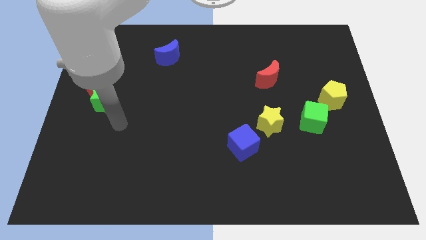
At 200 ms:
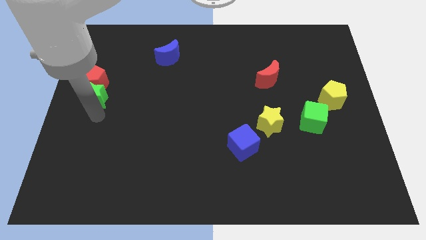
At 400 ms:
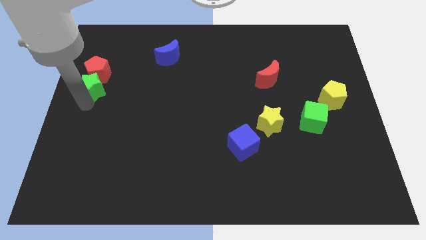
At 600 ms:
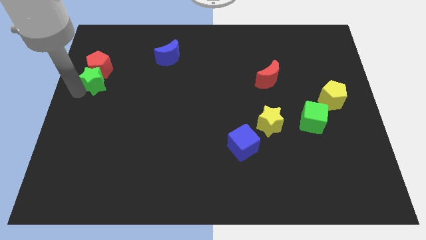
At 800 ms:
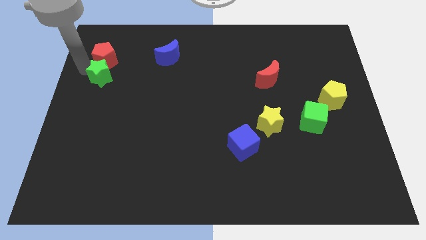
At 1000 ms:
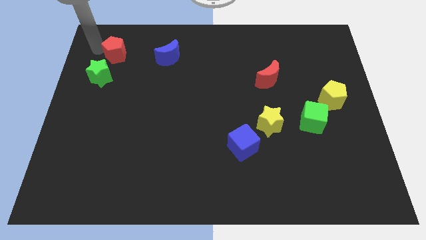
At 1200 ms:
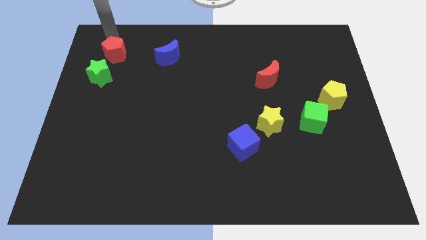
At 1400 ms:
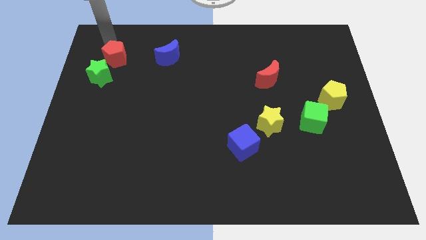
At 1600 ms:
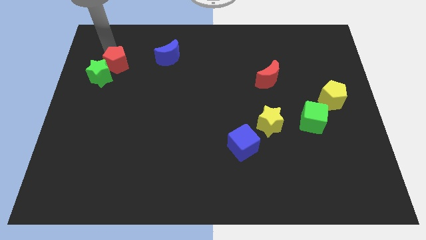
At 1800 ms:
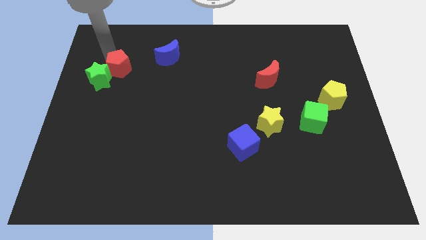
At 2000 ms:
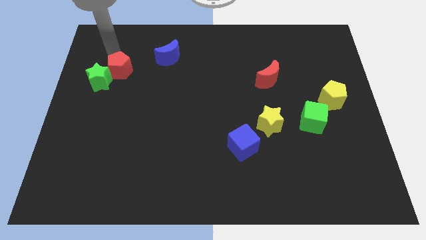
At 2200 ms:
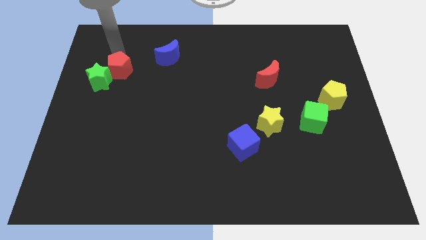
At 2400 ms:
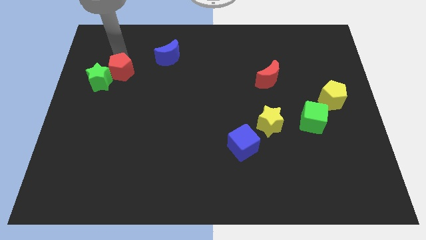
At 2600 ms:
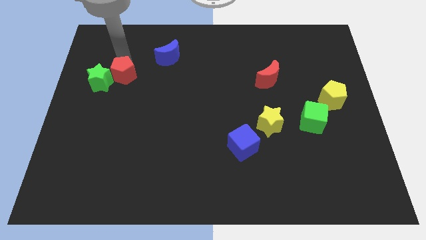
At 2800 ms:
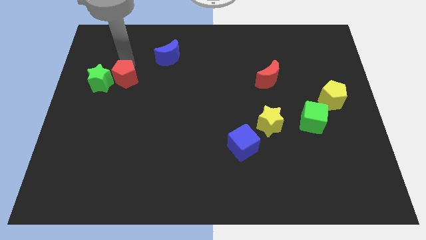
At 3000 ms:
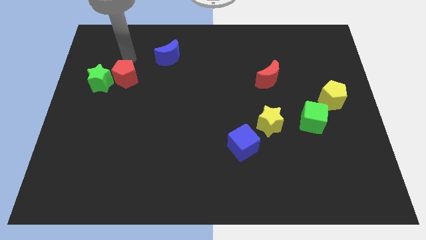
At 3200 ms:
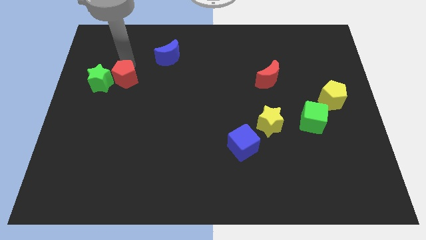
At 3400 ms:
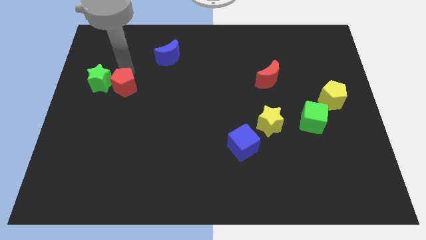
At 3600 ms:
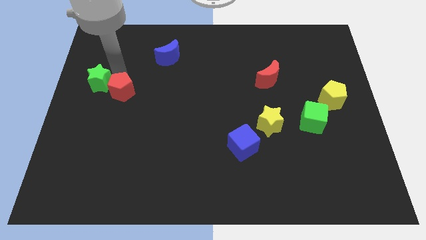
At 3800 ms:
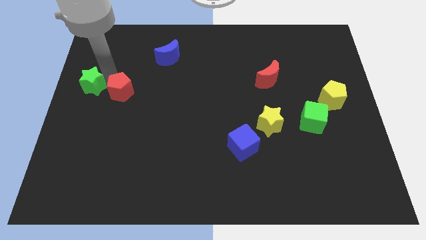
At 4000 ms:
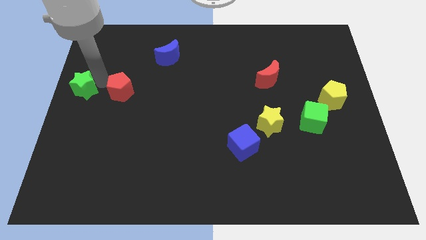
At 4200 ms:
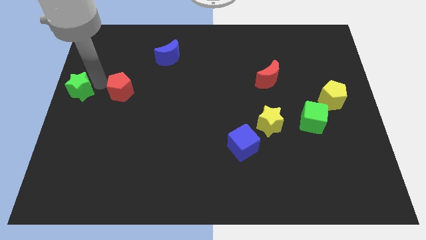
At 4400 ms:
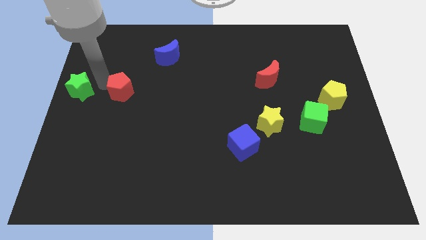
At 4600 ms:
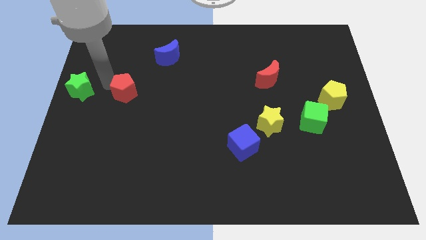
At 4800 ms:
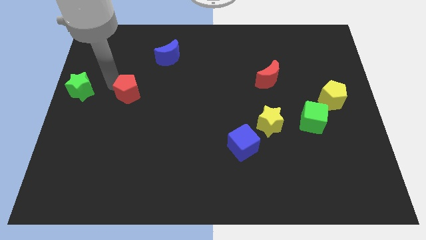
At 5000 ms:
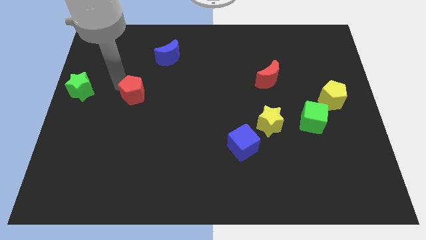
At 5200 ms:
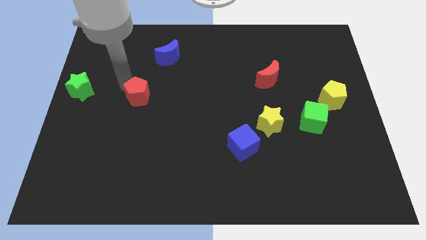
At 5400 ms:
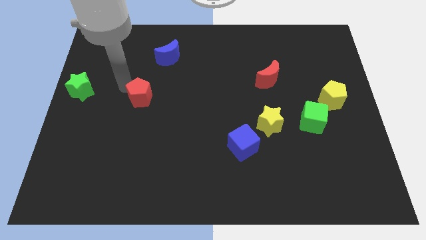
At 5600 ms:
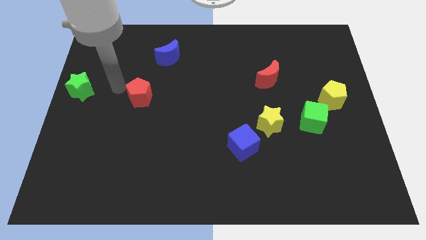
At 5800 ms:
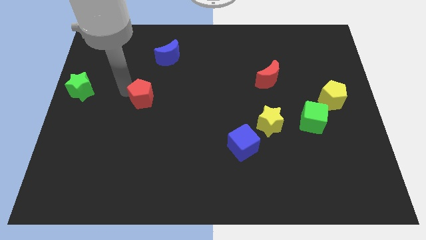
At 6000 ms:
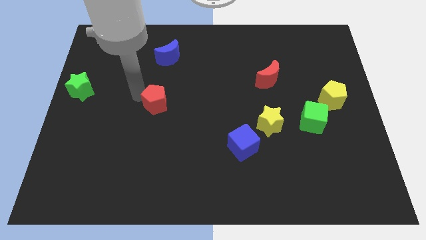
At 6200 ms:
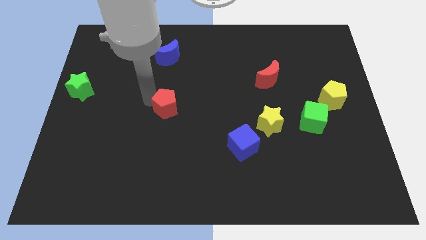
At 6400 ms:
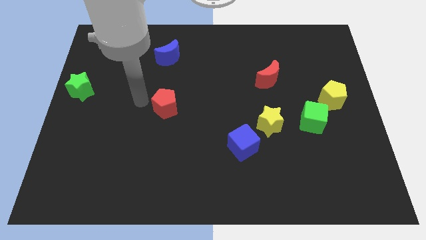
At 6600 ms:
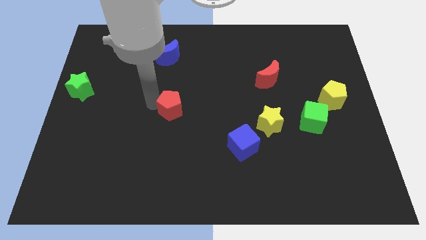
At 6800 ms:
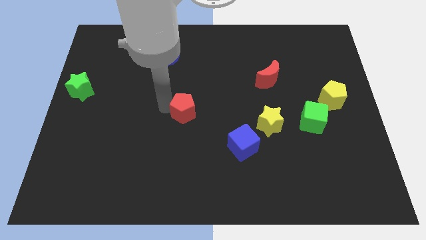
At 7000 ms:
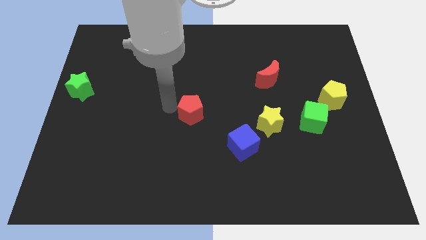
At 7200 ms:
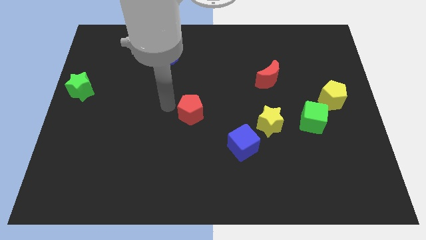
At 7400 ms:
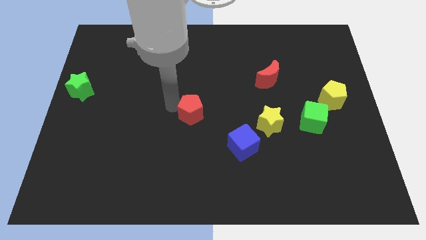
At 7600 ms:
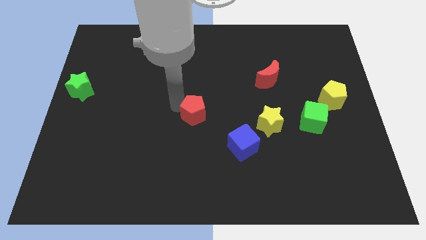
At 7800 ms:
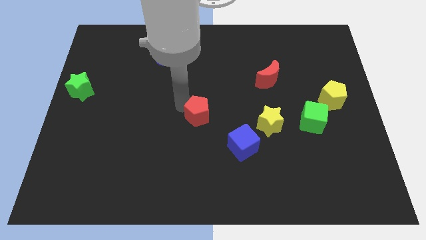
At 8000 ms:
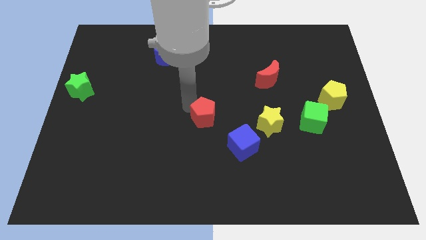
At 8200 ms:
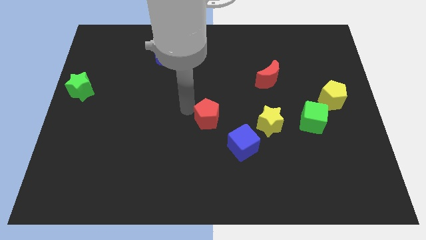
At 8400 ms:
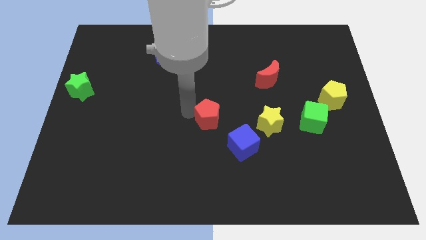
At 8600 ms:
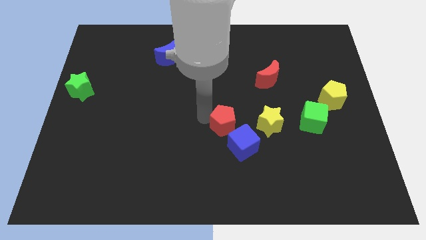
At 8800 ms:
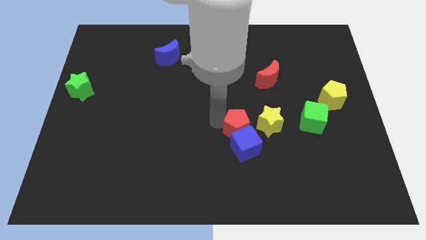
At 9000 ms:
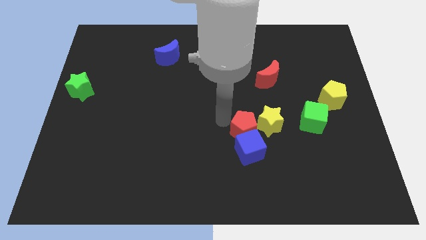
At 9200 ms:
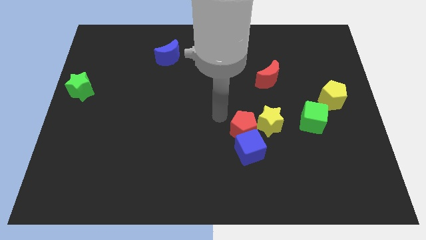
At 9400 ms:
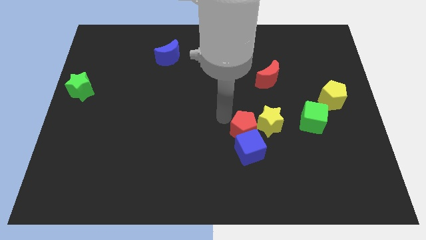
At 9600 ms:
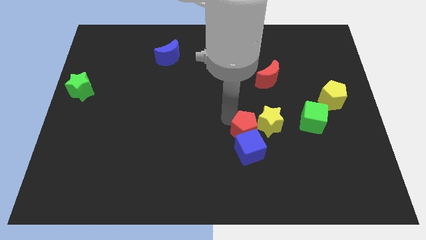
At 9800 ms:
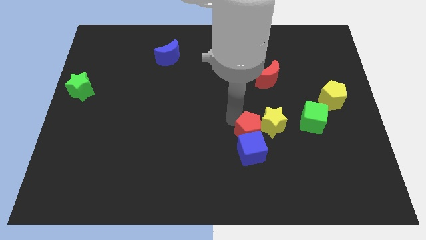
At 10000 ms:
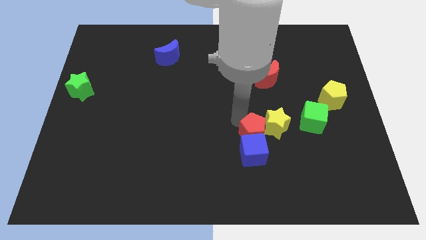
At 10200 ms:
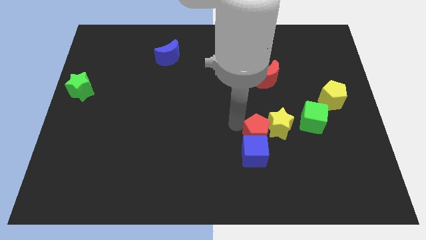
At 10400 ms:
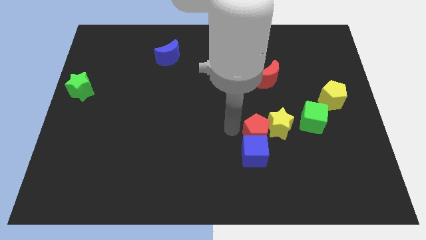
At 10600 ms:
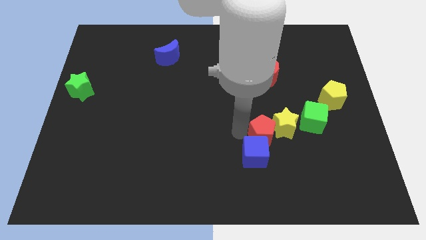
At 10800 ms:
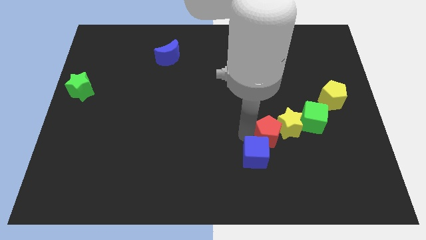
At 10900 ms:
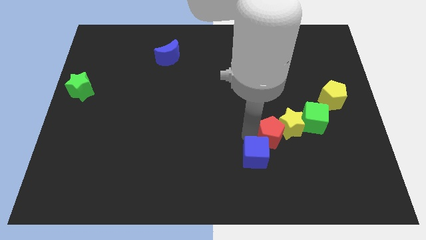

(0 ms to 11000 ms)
slide the red pentagon to the bottom left of the green cube

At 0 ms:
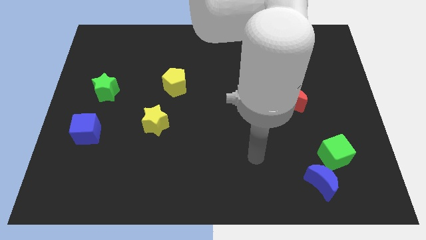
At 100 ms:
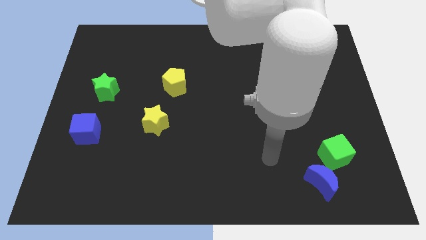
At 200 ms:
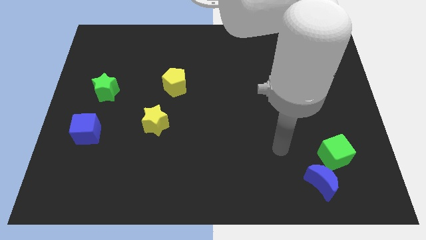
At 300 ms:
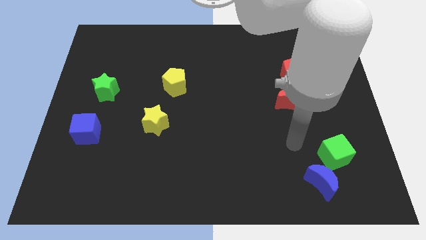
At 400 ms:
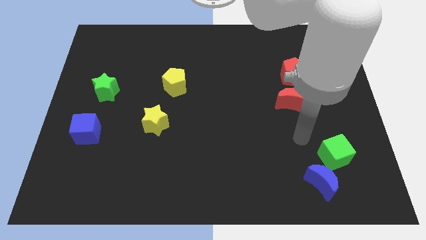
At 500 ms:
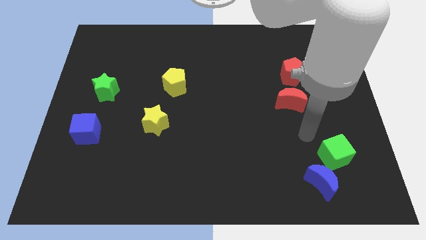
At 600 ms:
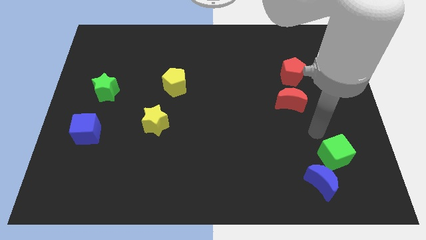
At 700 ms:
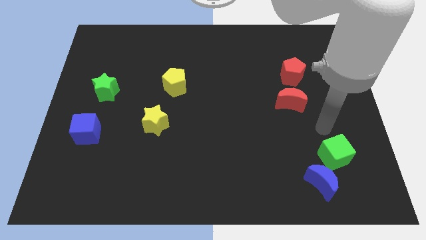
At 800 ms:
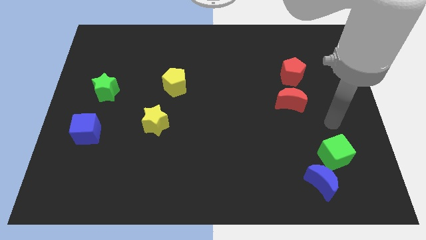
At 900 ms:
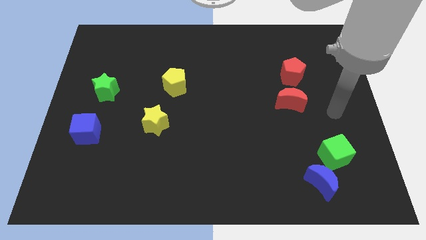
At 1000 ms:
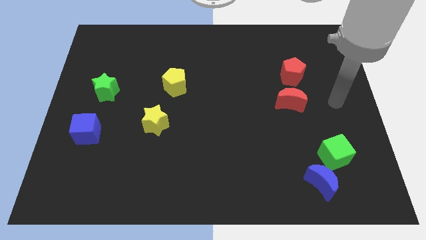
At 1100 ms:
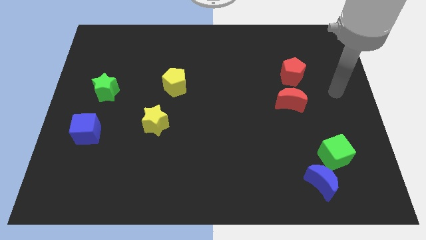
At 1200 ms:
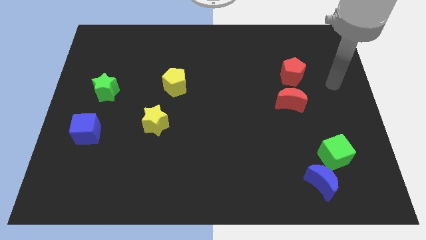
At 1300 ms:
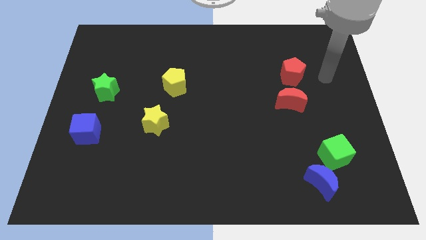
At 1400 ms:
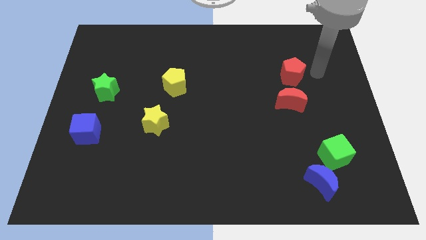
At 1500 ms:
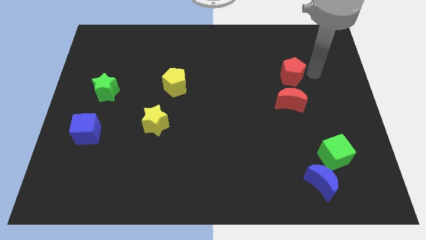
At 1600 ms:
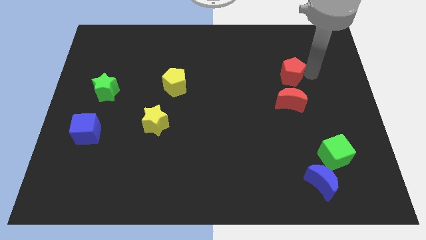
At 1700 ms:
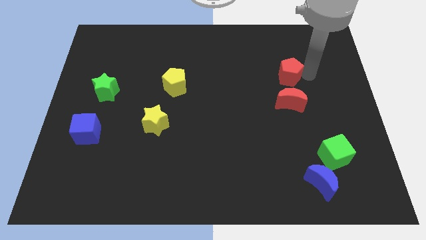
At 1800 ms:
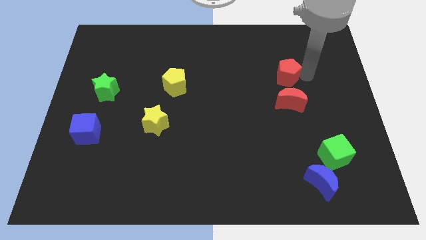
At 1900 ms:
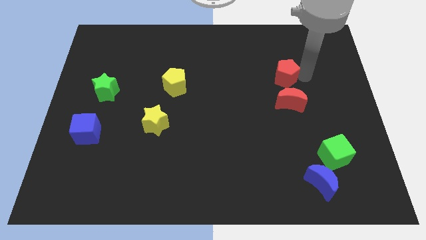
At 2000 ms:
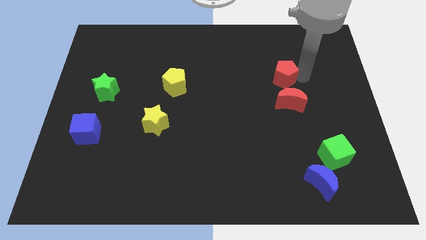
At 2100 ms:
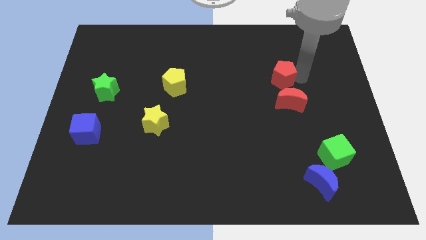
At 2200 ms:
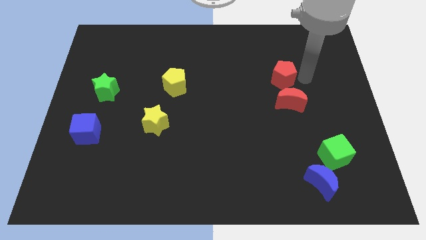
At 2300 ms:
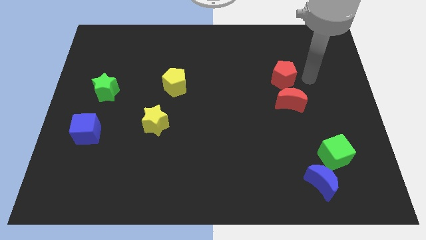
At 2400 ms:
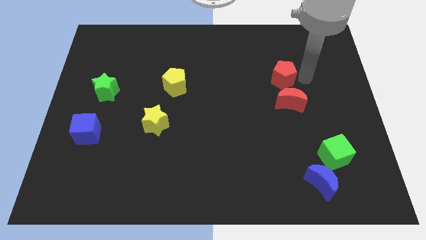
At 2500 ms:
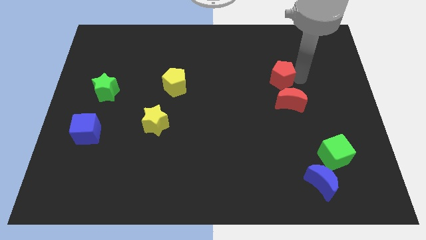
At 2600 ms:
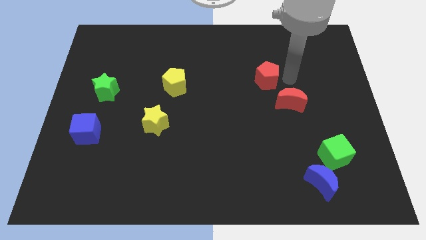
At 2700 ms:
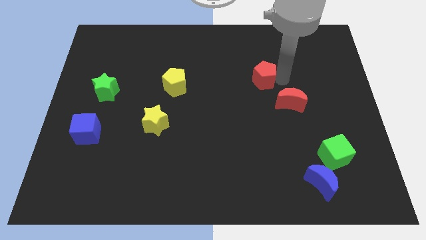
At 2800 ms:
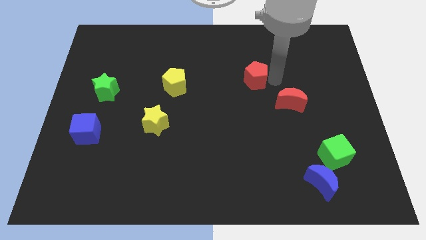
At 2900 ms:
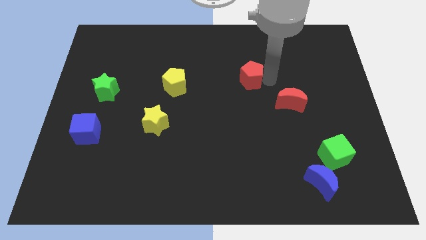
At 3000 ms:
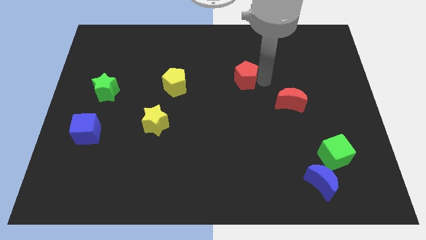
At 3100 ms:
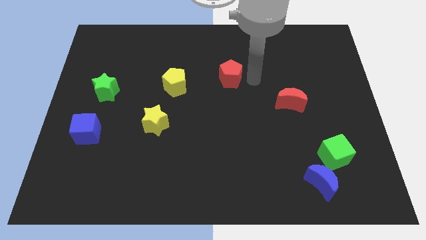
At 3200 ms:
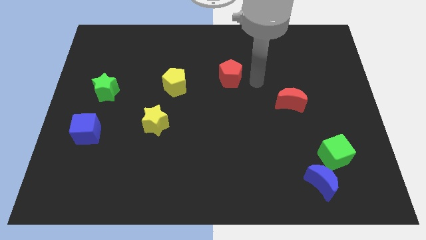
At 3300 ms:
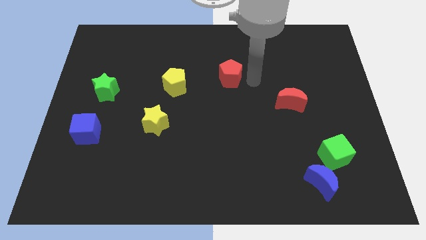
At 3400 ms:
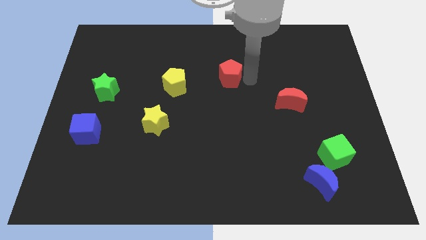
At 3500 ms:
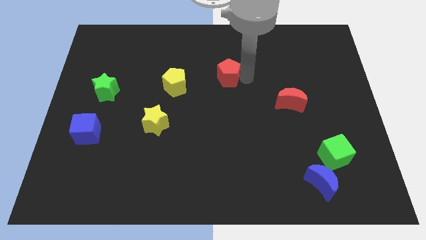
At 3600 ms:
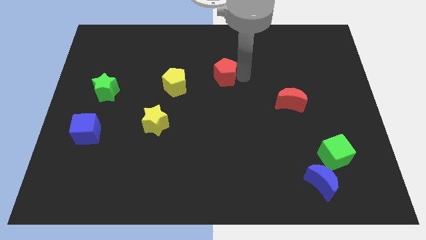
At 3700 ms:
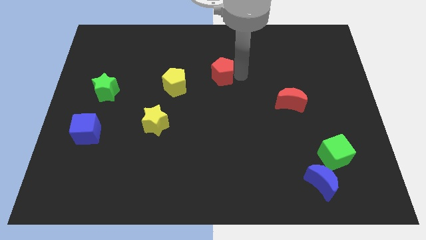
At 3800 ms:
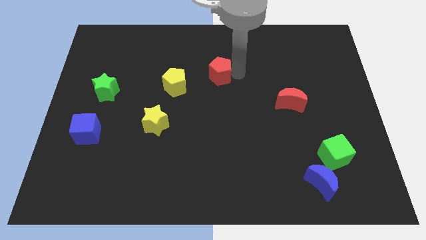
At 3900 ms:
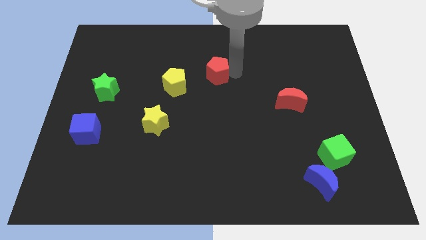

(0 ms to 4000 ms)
push the red pentagon diagonally up and to the right of the yellow pentagon
